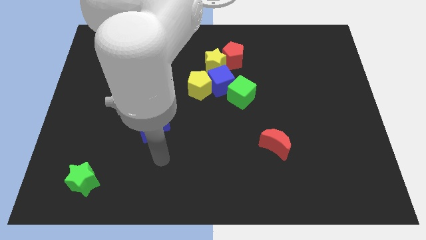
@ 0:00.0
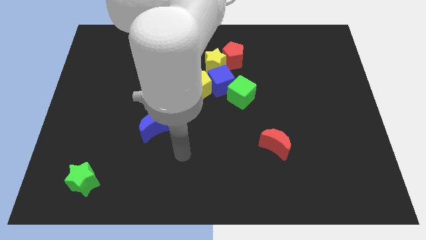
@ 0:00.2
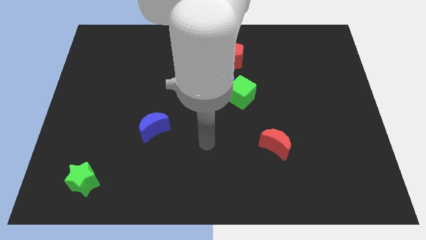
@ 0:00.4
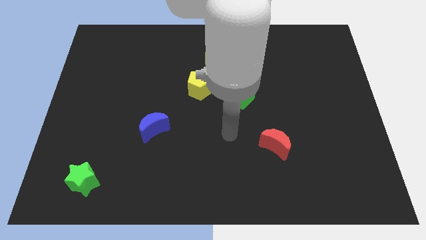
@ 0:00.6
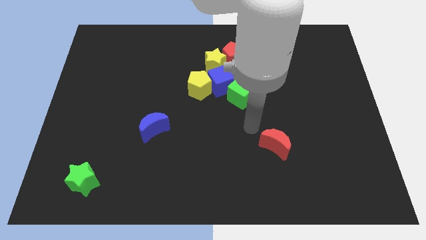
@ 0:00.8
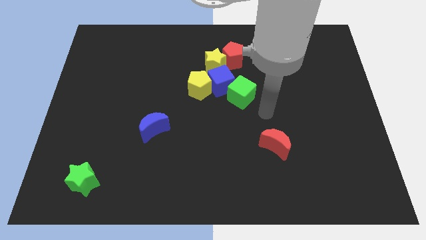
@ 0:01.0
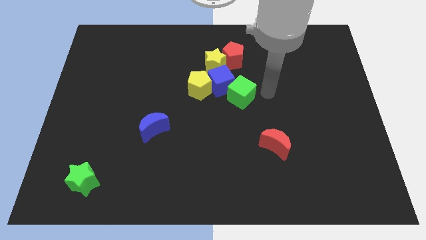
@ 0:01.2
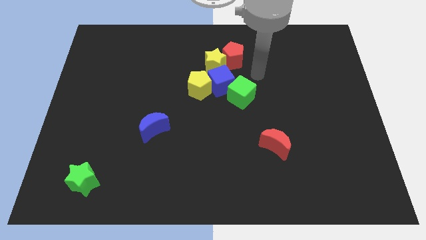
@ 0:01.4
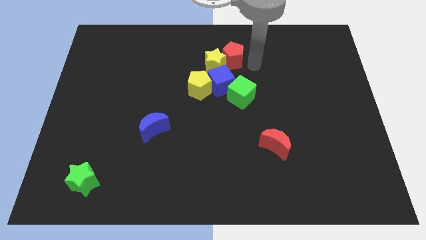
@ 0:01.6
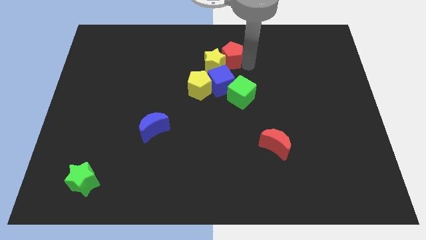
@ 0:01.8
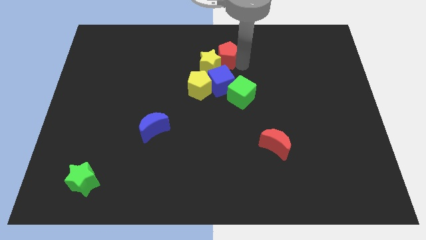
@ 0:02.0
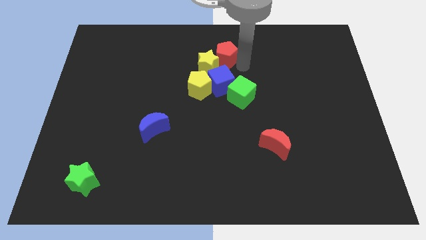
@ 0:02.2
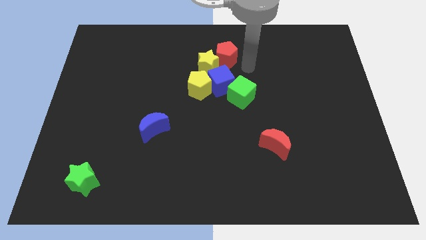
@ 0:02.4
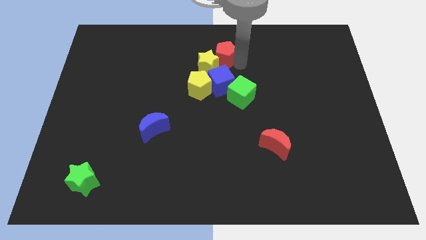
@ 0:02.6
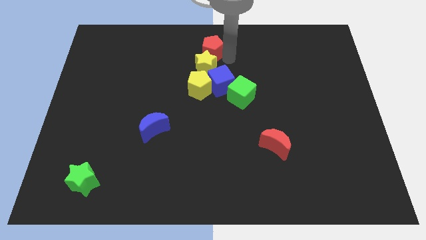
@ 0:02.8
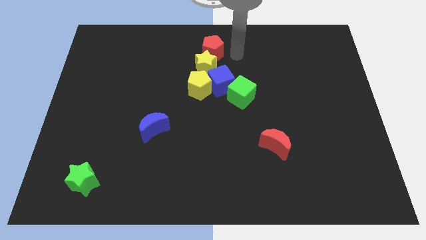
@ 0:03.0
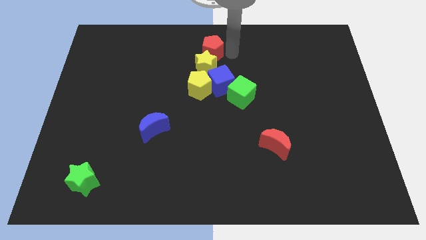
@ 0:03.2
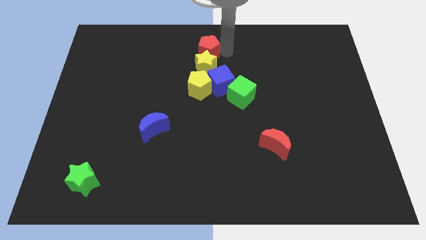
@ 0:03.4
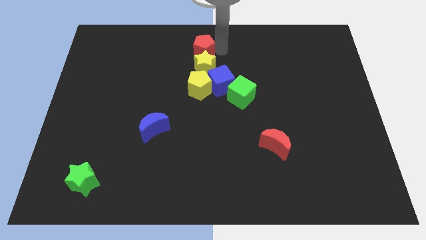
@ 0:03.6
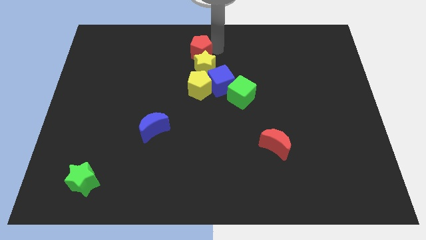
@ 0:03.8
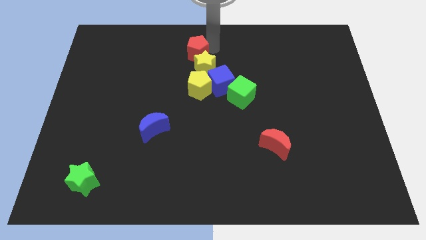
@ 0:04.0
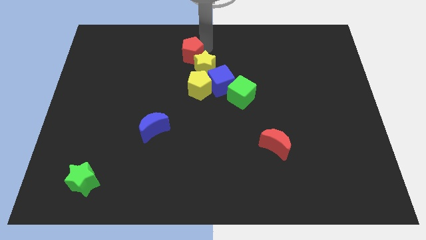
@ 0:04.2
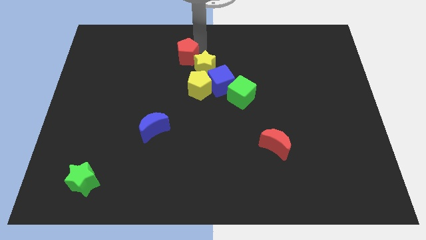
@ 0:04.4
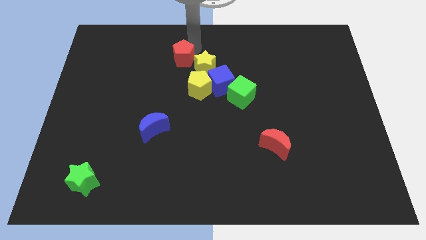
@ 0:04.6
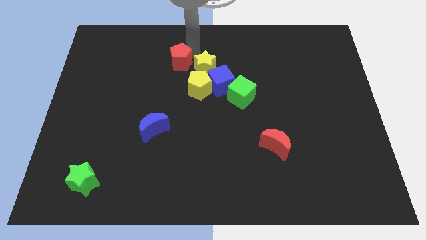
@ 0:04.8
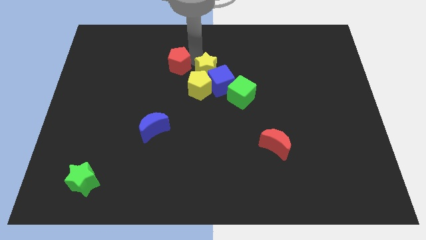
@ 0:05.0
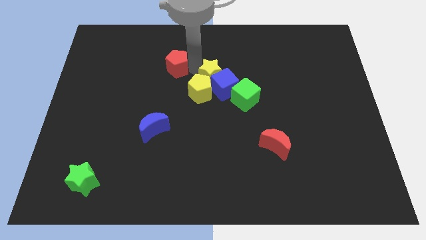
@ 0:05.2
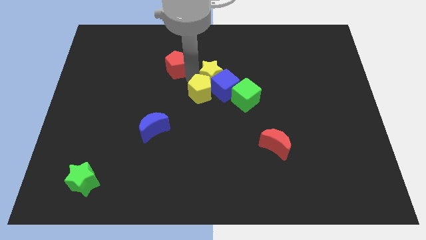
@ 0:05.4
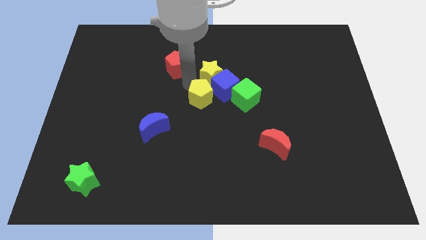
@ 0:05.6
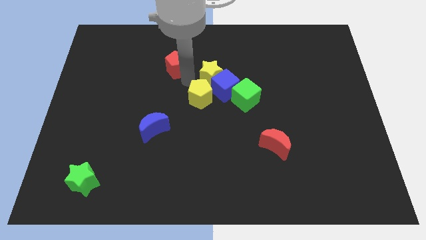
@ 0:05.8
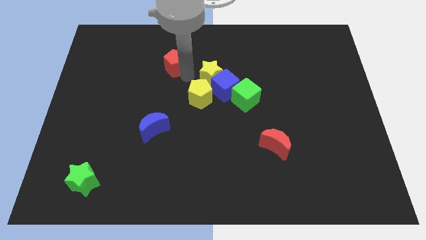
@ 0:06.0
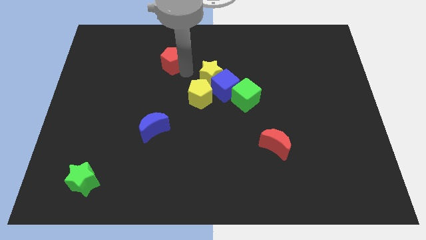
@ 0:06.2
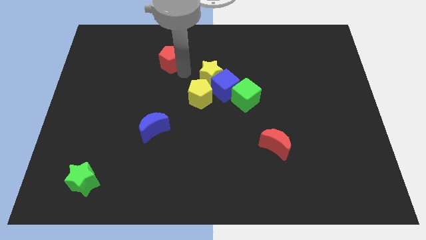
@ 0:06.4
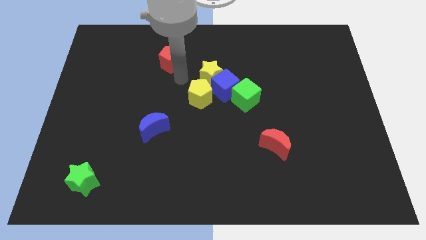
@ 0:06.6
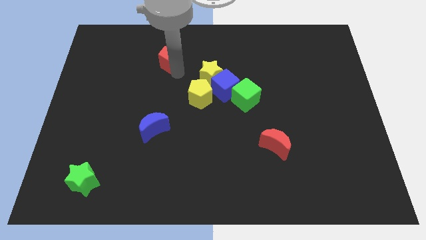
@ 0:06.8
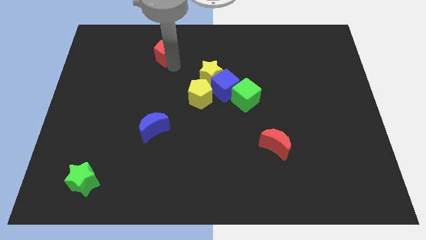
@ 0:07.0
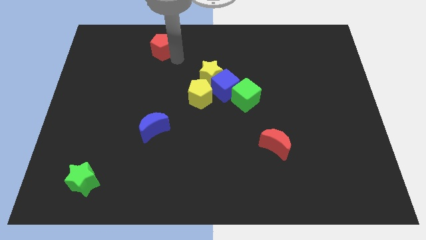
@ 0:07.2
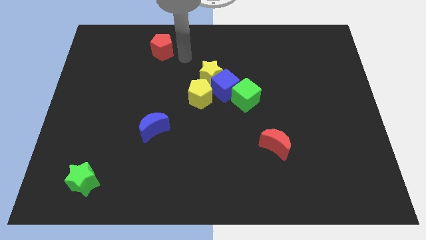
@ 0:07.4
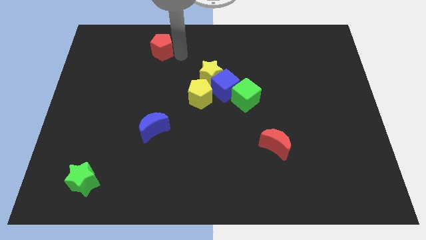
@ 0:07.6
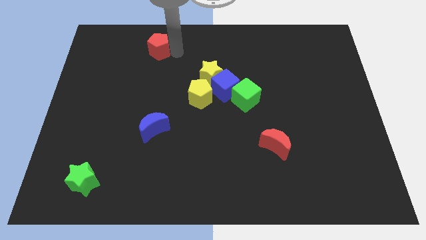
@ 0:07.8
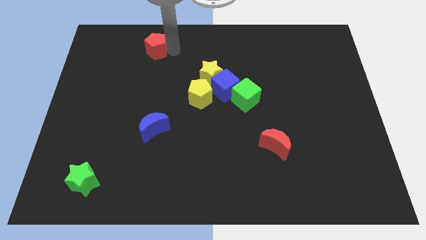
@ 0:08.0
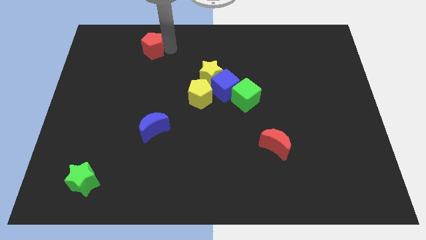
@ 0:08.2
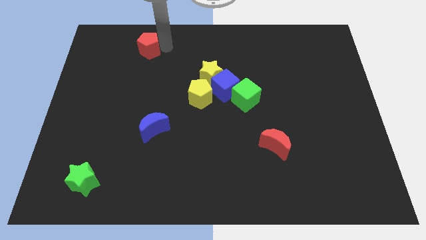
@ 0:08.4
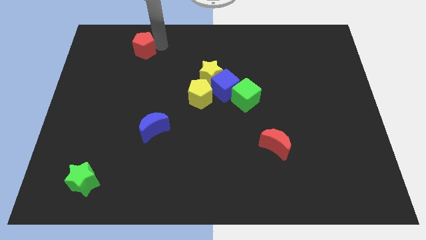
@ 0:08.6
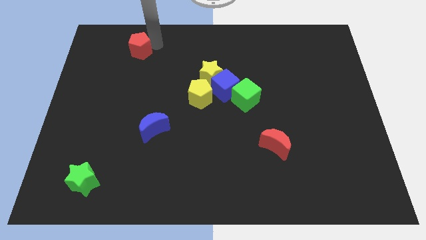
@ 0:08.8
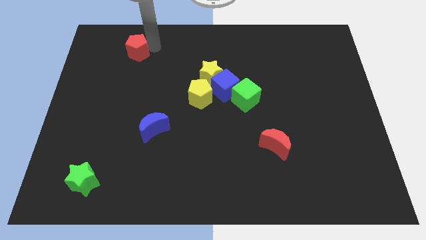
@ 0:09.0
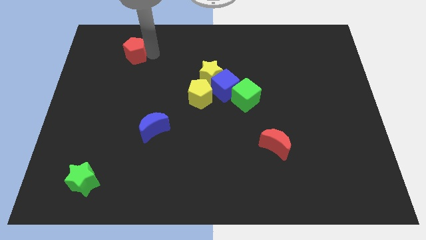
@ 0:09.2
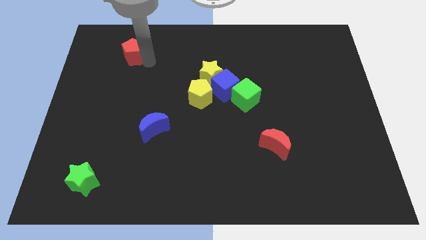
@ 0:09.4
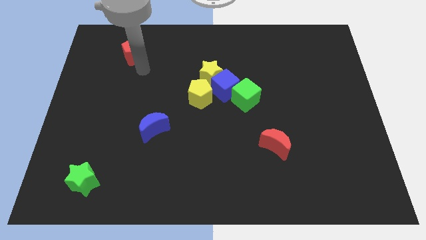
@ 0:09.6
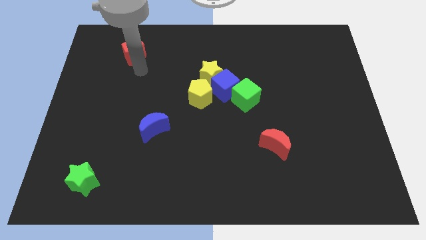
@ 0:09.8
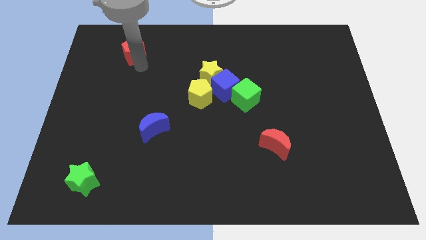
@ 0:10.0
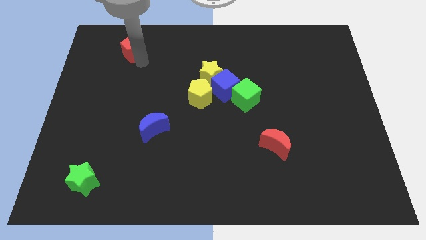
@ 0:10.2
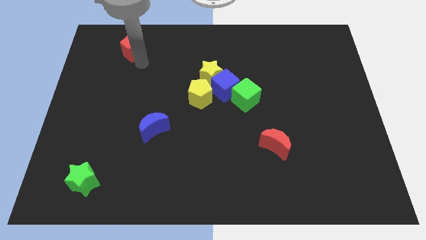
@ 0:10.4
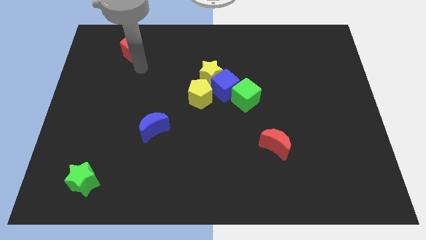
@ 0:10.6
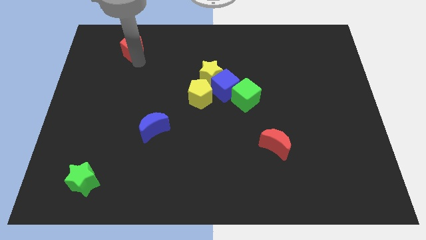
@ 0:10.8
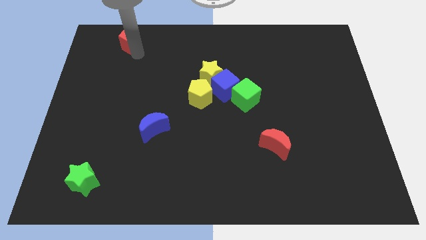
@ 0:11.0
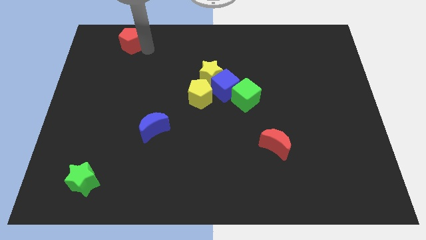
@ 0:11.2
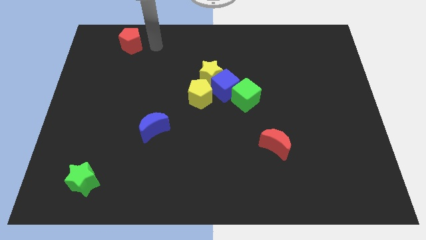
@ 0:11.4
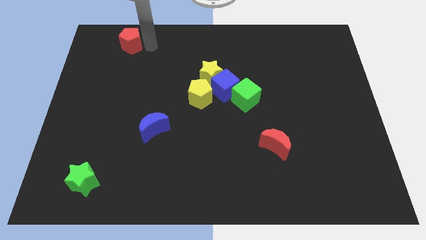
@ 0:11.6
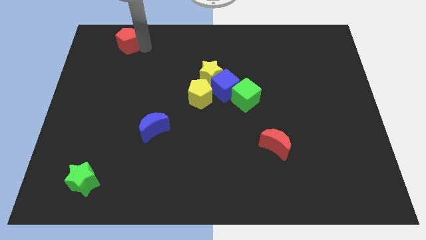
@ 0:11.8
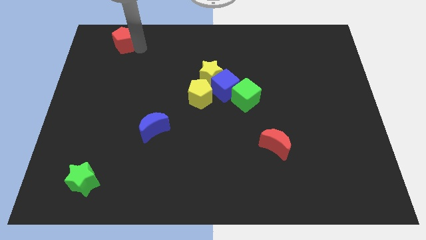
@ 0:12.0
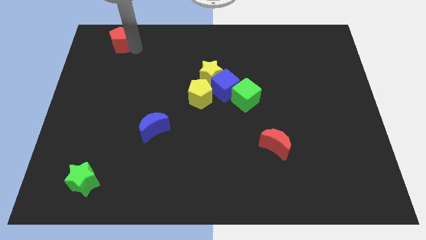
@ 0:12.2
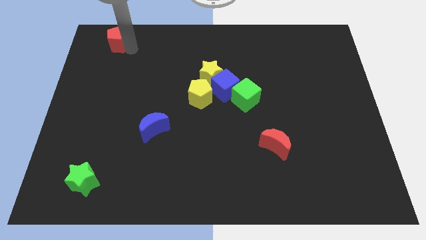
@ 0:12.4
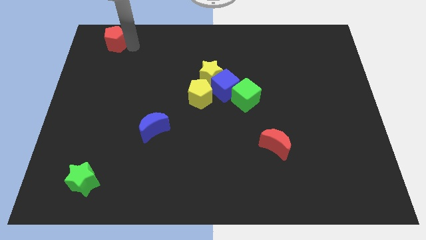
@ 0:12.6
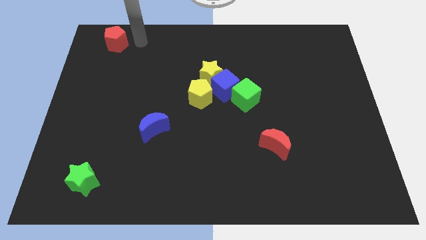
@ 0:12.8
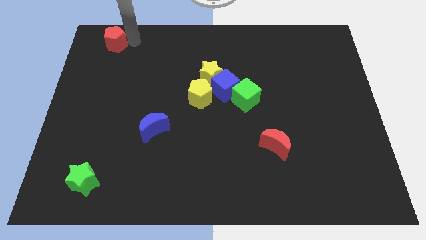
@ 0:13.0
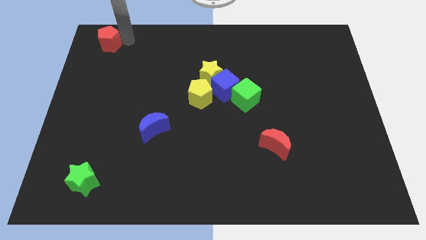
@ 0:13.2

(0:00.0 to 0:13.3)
move the red pentagon to the upper left corner
